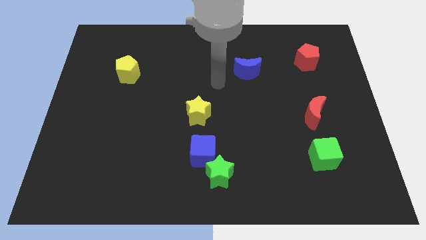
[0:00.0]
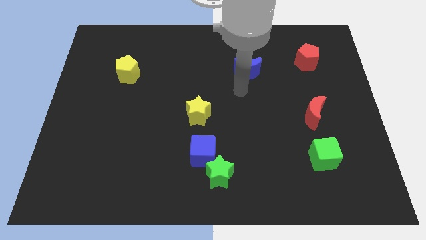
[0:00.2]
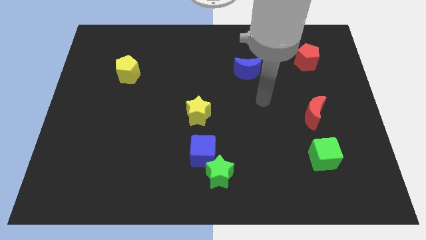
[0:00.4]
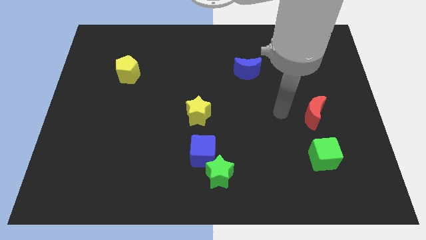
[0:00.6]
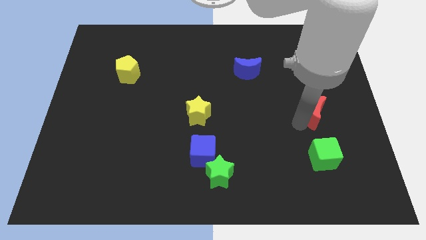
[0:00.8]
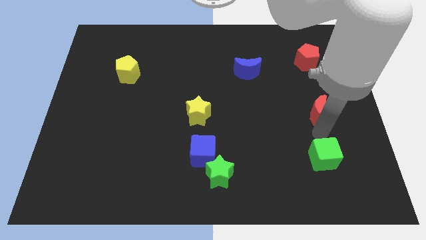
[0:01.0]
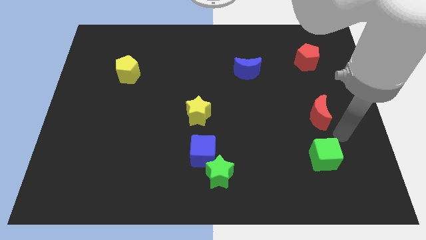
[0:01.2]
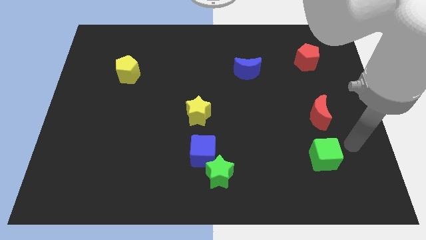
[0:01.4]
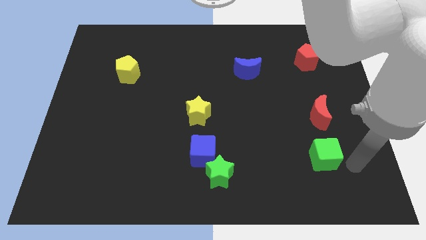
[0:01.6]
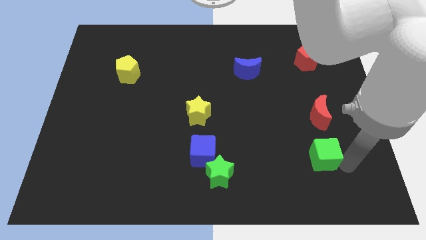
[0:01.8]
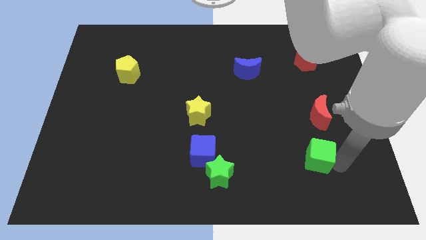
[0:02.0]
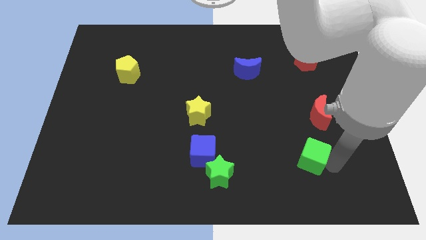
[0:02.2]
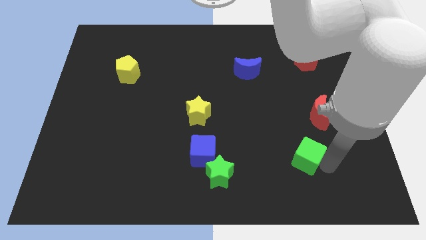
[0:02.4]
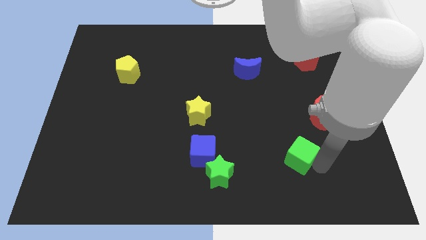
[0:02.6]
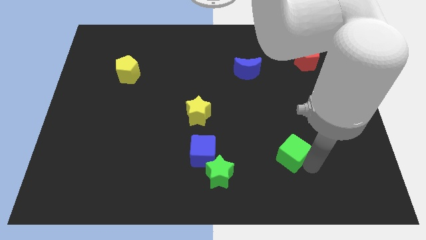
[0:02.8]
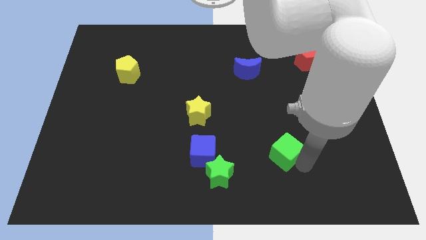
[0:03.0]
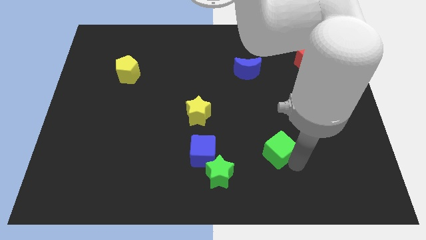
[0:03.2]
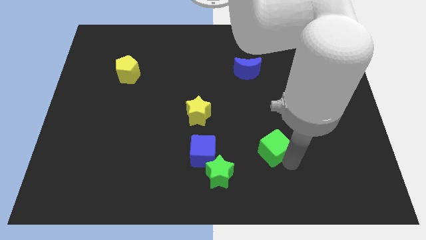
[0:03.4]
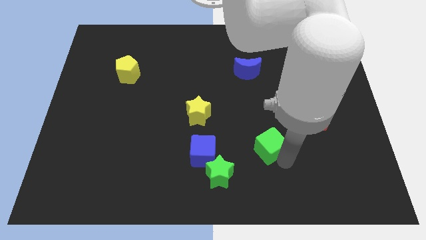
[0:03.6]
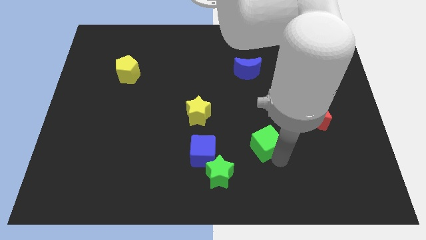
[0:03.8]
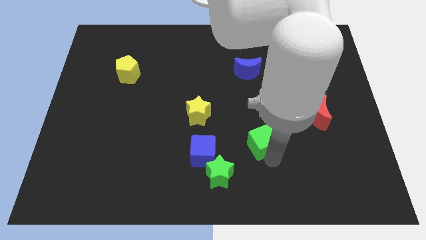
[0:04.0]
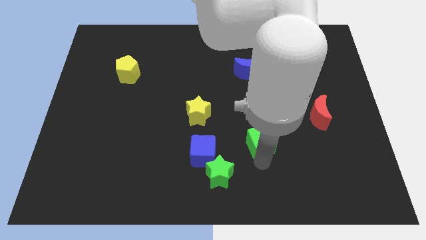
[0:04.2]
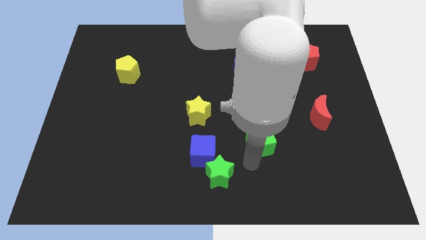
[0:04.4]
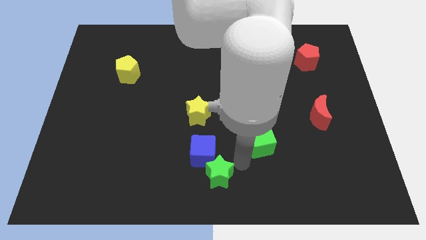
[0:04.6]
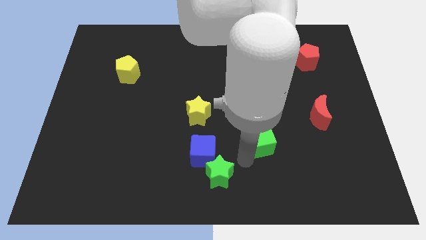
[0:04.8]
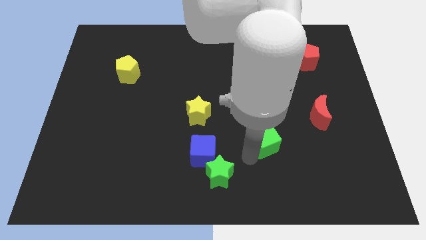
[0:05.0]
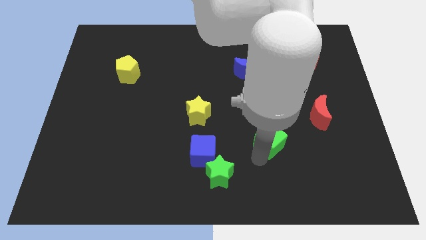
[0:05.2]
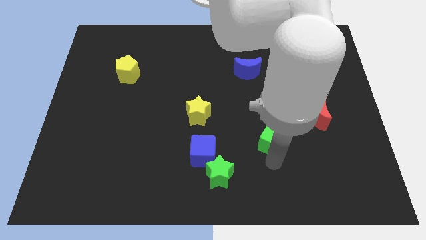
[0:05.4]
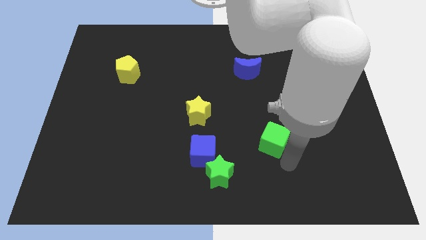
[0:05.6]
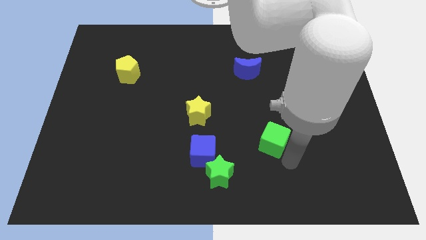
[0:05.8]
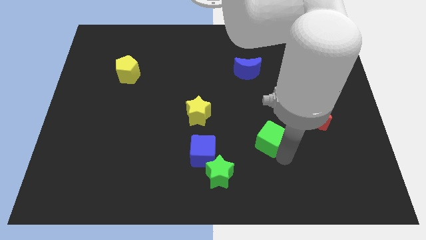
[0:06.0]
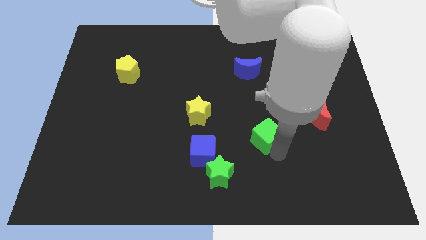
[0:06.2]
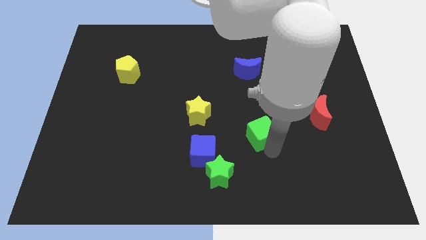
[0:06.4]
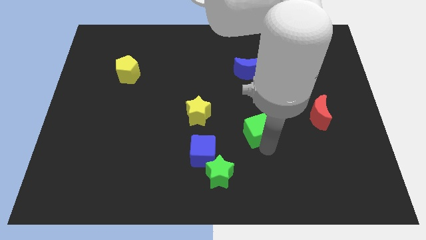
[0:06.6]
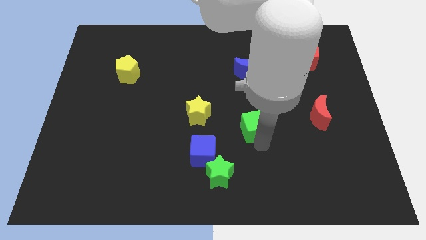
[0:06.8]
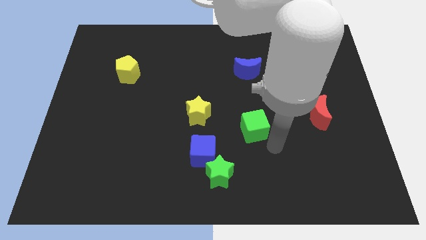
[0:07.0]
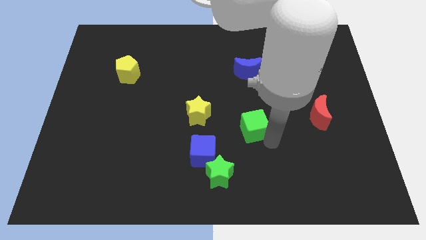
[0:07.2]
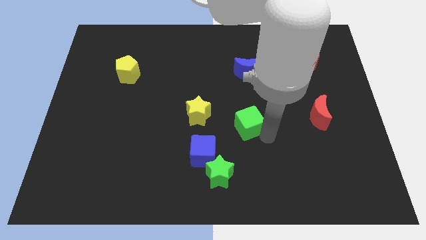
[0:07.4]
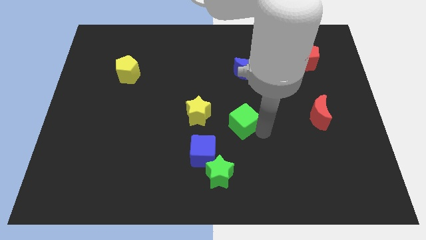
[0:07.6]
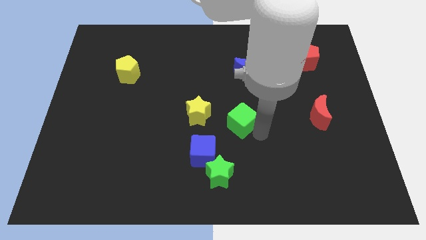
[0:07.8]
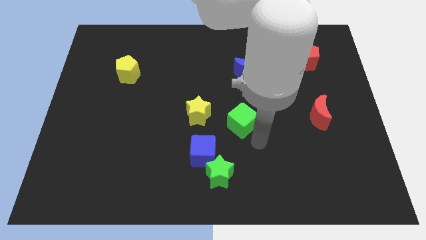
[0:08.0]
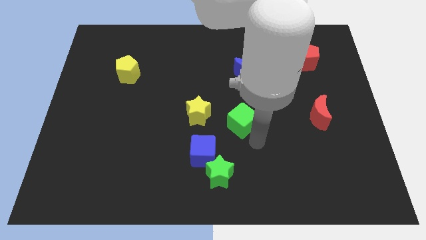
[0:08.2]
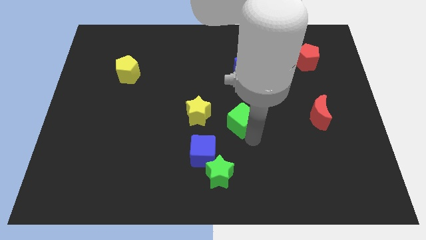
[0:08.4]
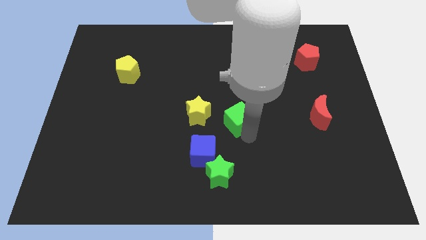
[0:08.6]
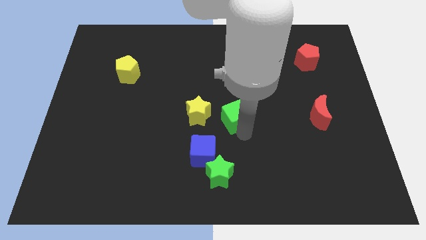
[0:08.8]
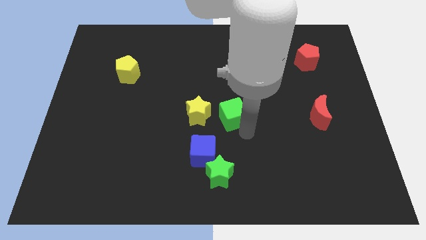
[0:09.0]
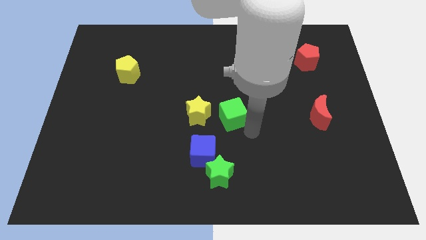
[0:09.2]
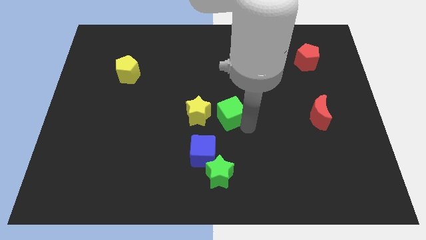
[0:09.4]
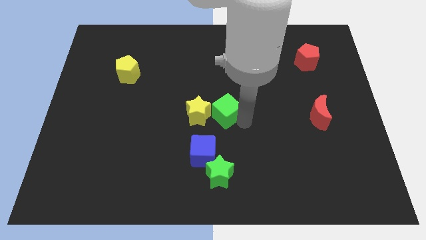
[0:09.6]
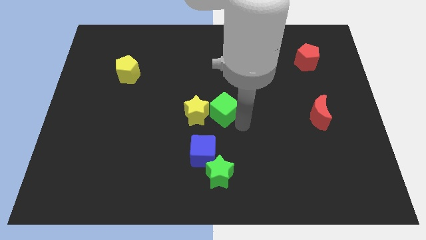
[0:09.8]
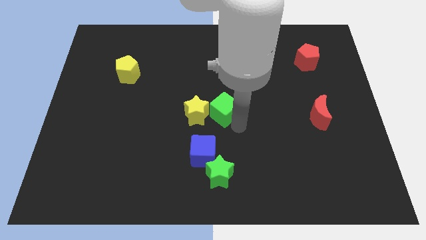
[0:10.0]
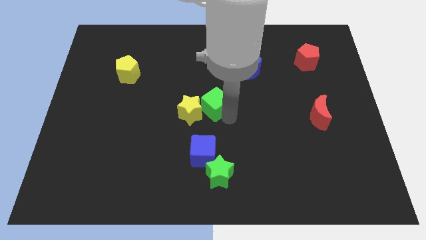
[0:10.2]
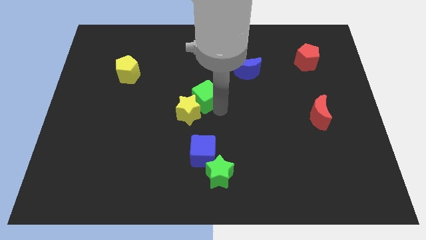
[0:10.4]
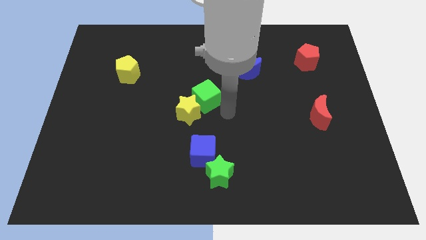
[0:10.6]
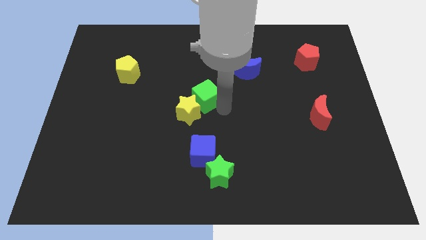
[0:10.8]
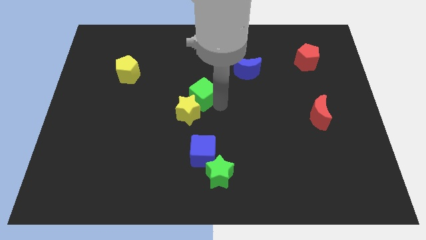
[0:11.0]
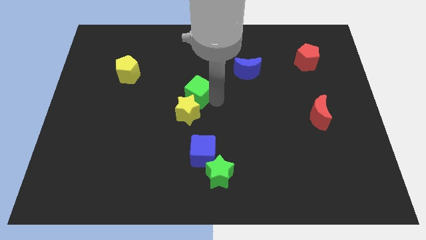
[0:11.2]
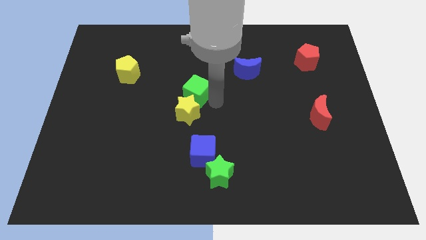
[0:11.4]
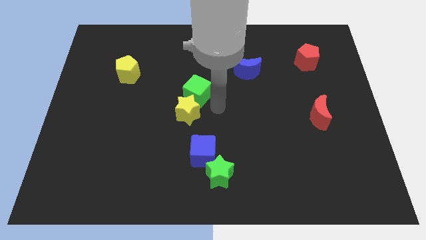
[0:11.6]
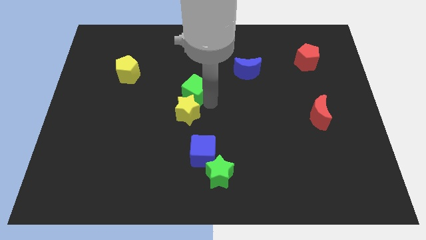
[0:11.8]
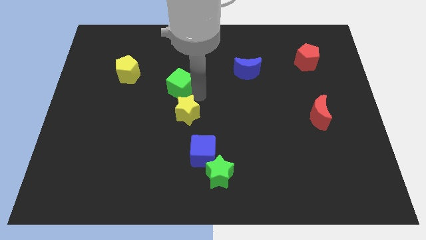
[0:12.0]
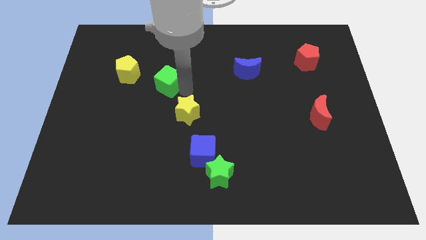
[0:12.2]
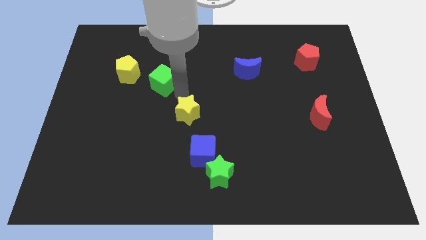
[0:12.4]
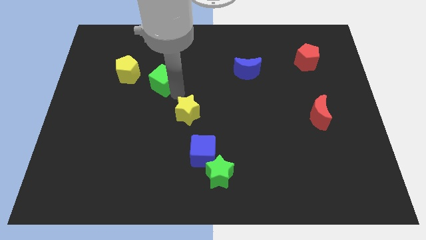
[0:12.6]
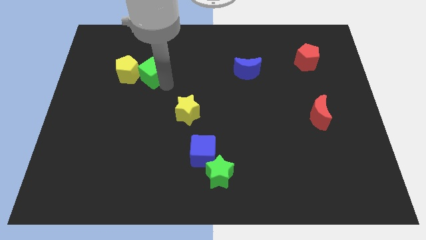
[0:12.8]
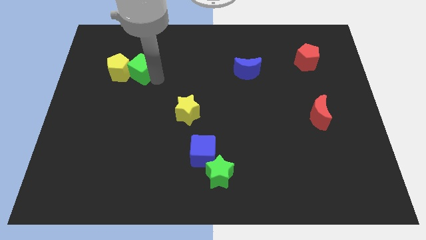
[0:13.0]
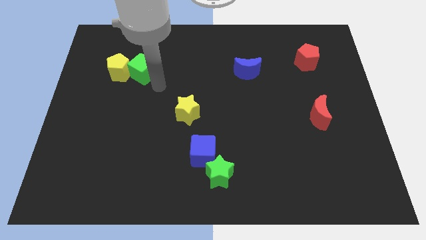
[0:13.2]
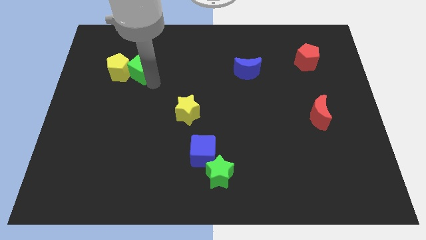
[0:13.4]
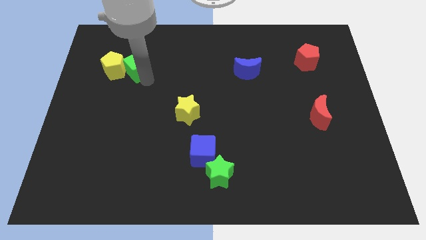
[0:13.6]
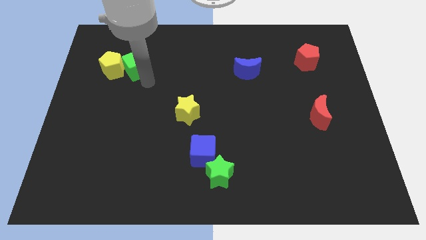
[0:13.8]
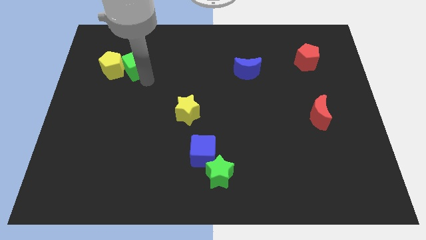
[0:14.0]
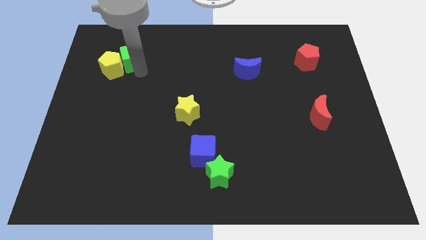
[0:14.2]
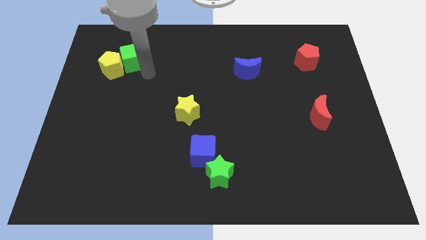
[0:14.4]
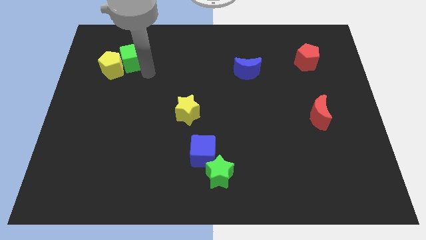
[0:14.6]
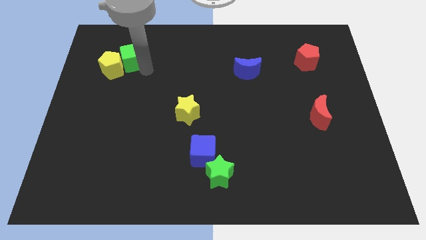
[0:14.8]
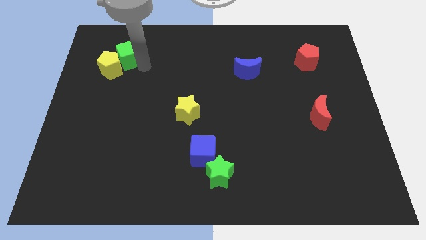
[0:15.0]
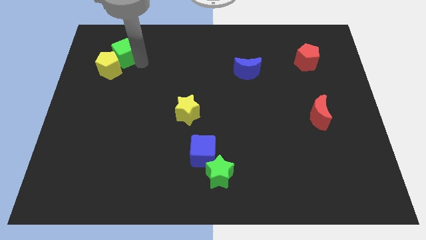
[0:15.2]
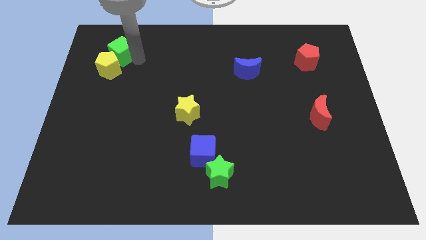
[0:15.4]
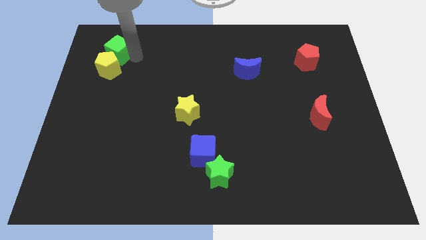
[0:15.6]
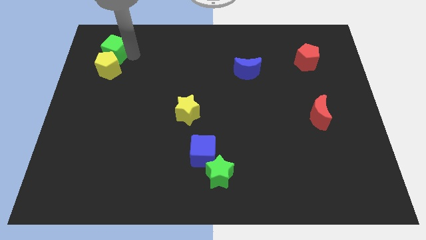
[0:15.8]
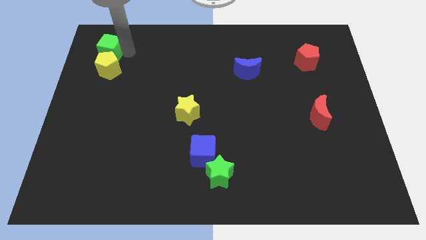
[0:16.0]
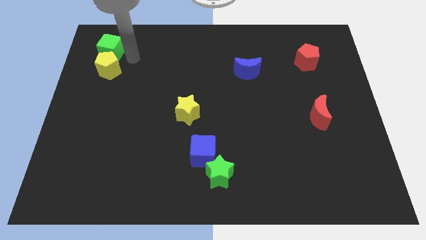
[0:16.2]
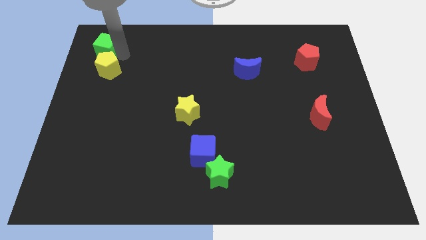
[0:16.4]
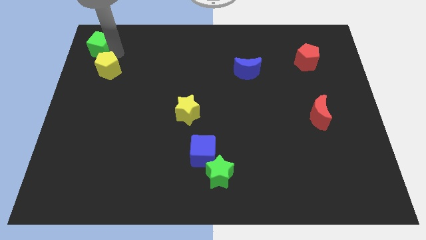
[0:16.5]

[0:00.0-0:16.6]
move the green cube to the upper left corner
